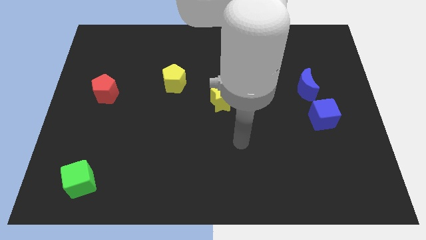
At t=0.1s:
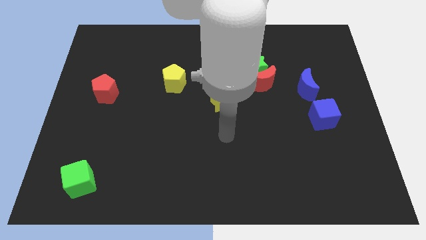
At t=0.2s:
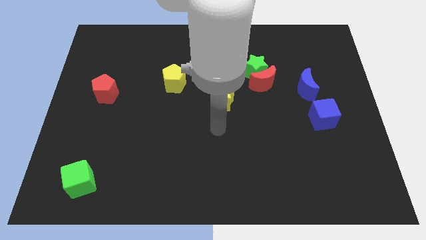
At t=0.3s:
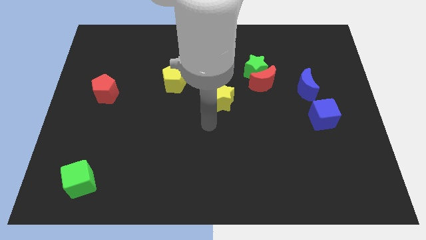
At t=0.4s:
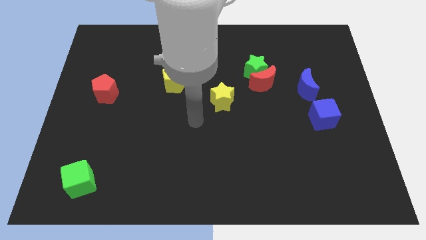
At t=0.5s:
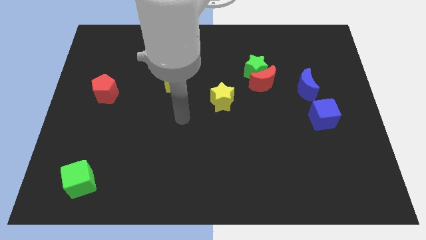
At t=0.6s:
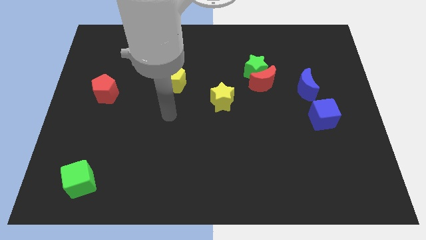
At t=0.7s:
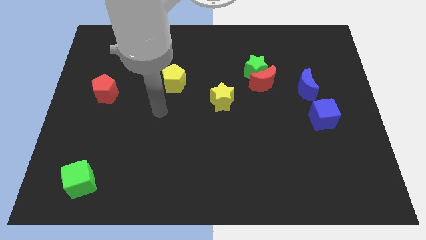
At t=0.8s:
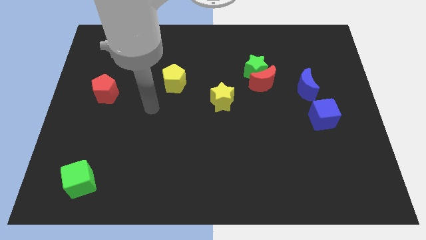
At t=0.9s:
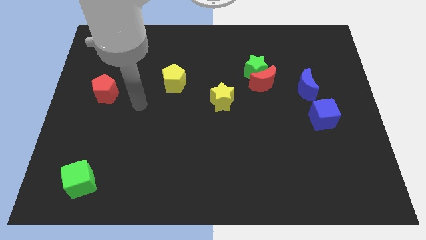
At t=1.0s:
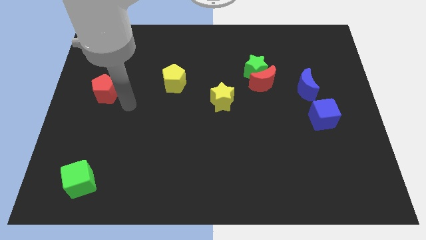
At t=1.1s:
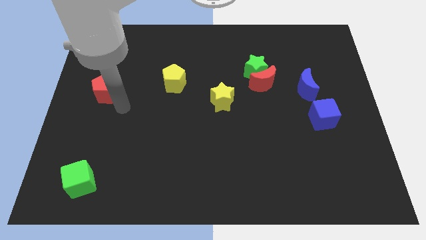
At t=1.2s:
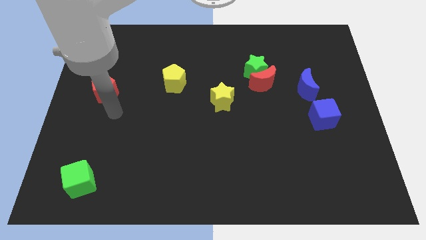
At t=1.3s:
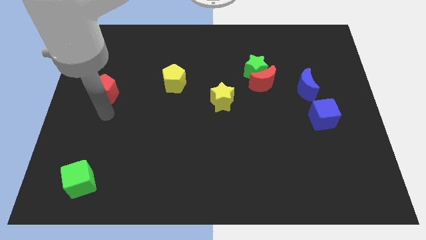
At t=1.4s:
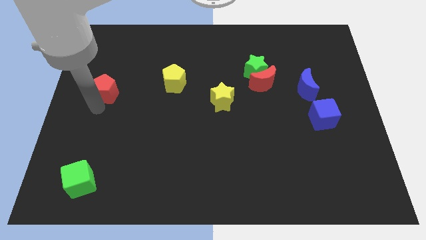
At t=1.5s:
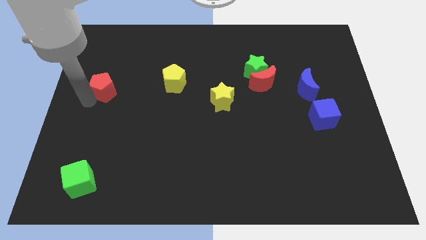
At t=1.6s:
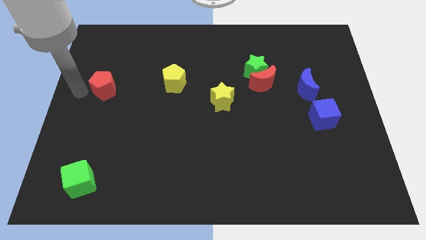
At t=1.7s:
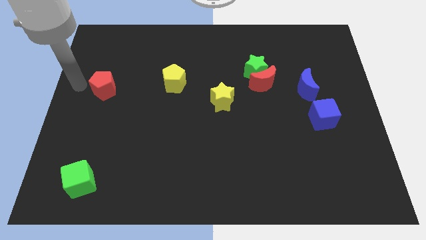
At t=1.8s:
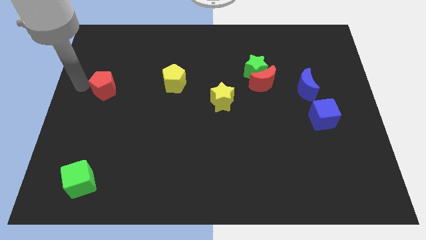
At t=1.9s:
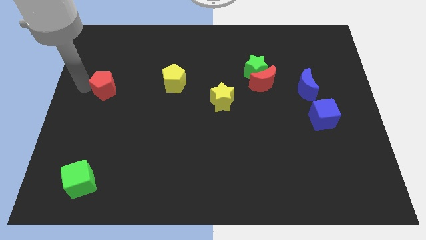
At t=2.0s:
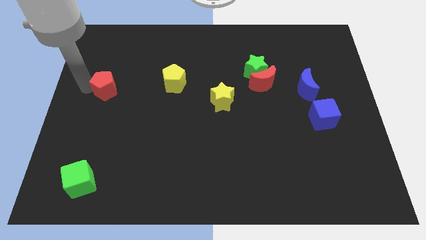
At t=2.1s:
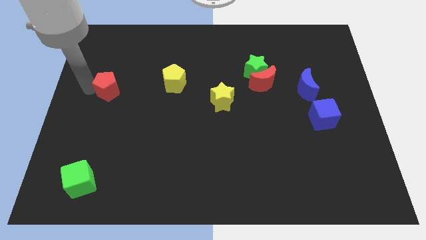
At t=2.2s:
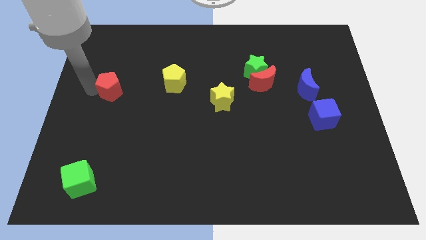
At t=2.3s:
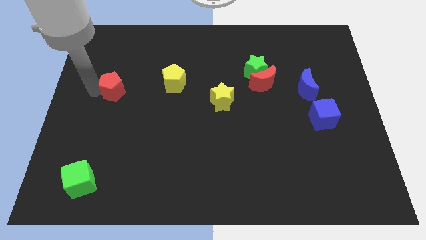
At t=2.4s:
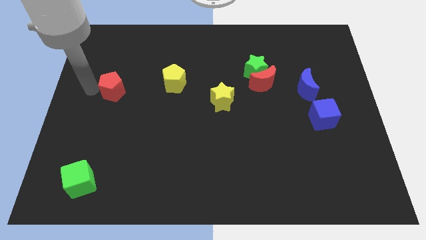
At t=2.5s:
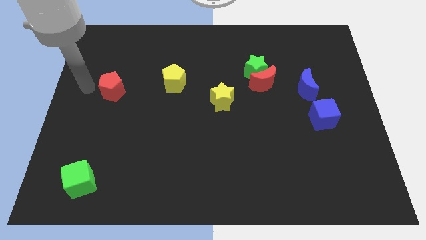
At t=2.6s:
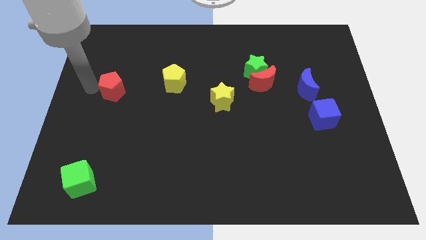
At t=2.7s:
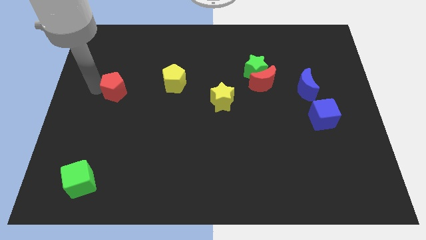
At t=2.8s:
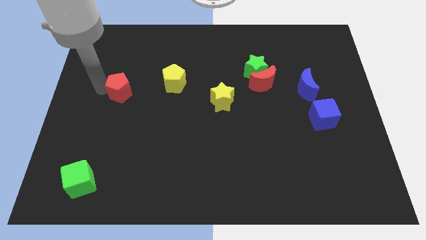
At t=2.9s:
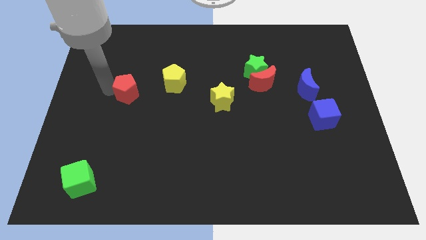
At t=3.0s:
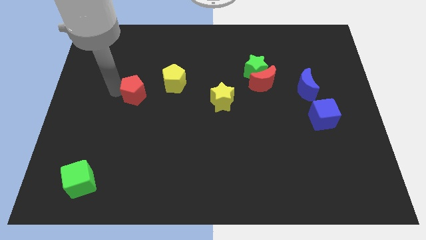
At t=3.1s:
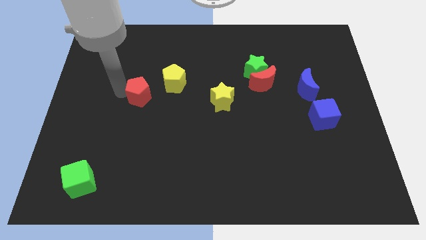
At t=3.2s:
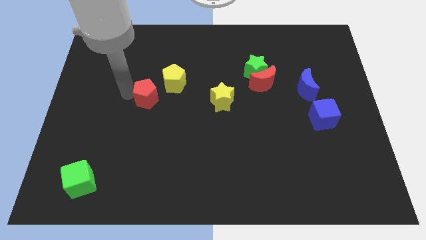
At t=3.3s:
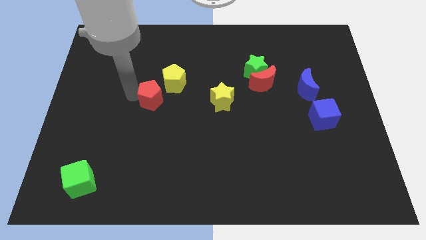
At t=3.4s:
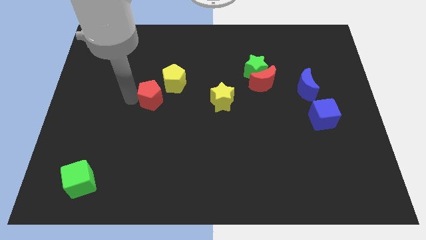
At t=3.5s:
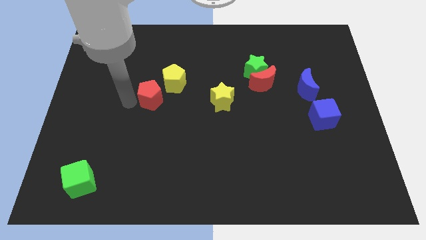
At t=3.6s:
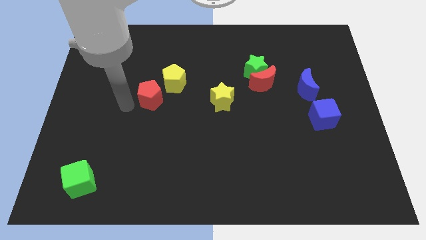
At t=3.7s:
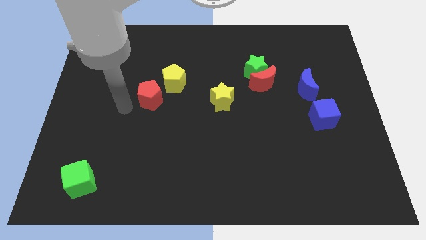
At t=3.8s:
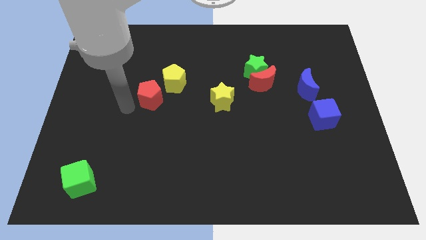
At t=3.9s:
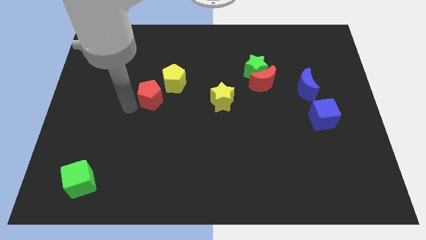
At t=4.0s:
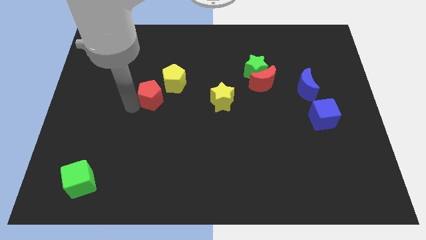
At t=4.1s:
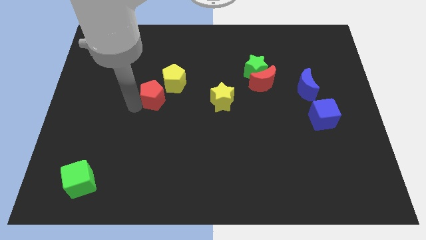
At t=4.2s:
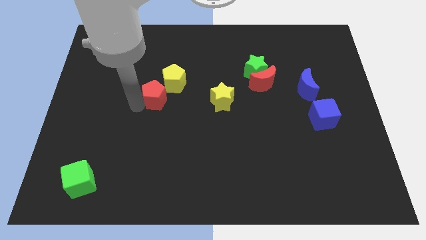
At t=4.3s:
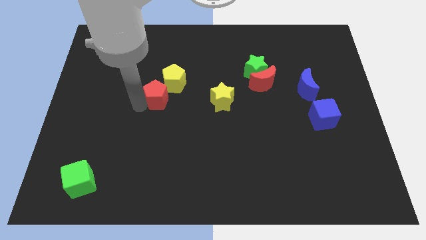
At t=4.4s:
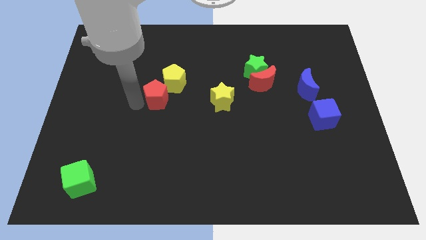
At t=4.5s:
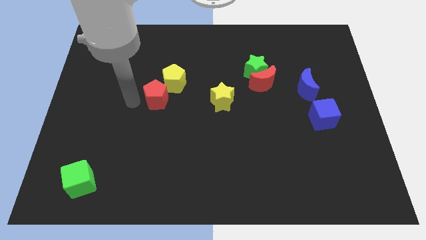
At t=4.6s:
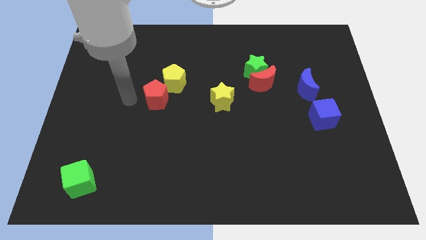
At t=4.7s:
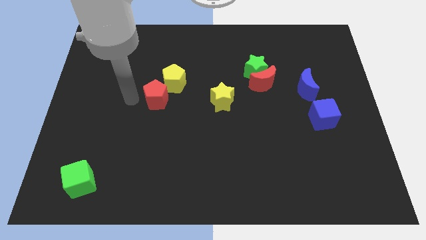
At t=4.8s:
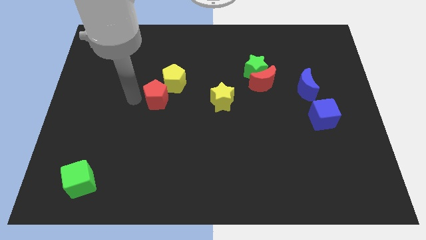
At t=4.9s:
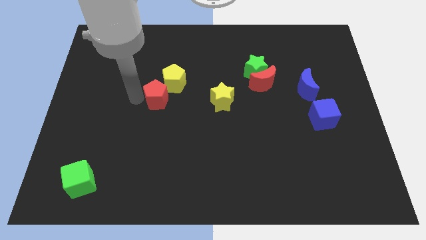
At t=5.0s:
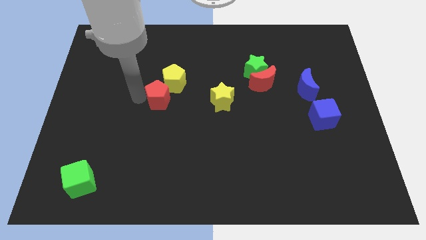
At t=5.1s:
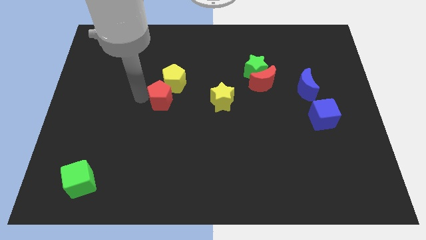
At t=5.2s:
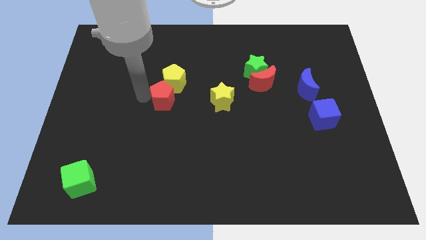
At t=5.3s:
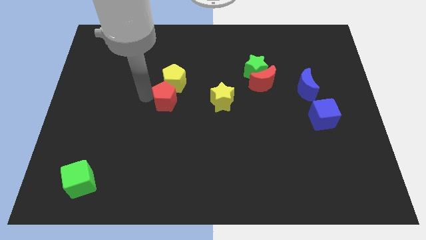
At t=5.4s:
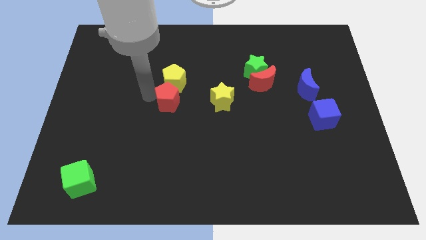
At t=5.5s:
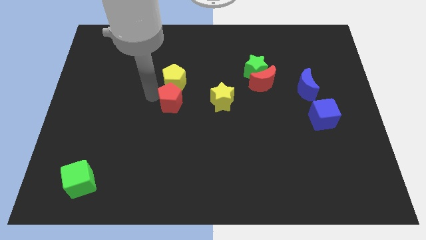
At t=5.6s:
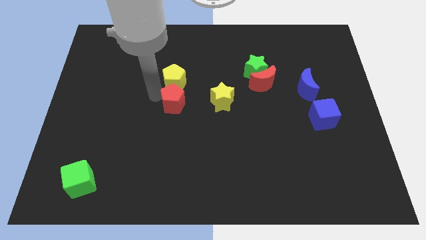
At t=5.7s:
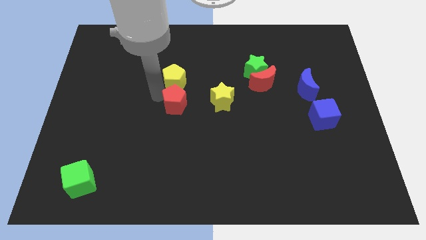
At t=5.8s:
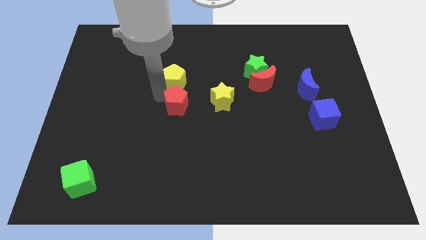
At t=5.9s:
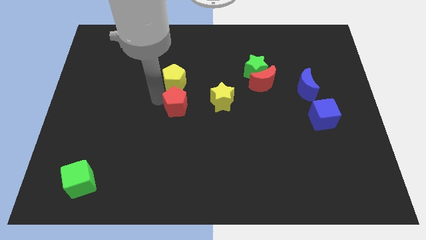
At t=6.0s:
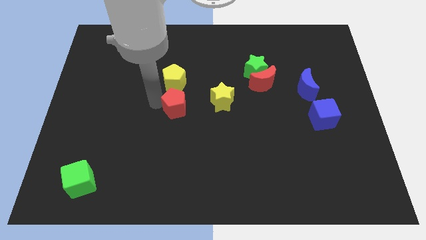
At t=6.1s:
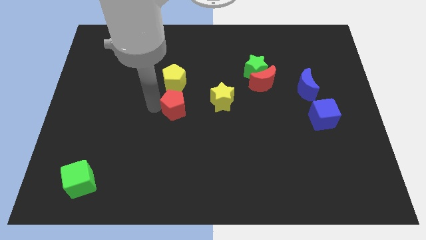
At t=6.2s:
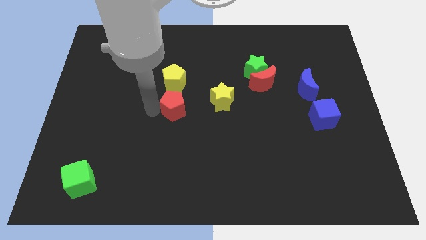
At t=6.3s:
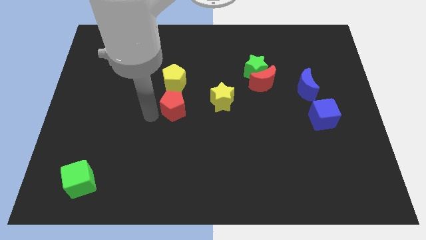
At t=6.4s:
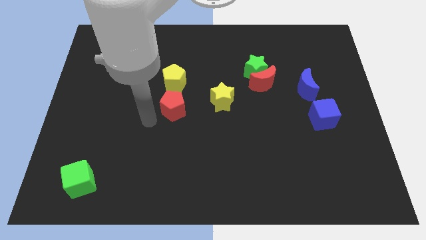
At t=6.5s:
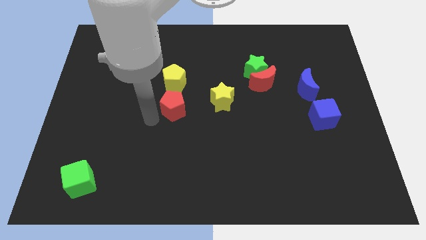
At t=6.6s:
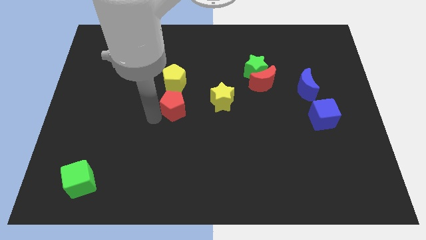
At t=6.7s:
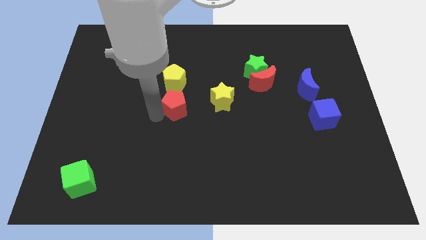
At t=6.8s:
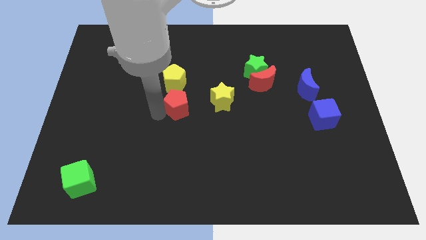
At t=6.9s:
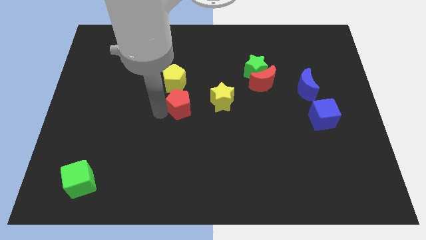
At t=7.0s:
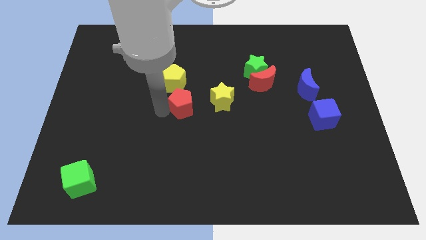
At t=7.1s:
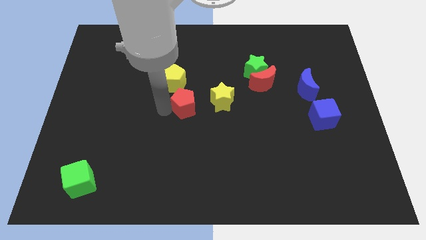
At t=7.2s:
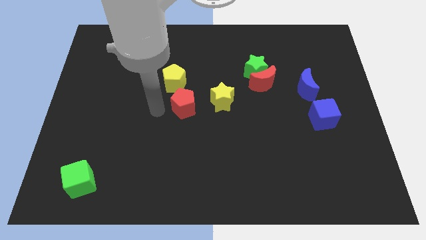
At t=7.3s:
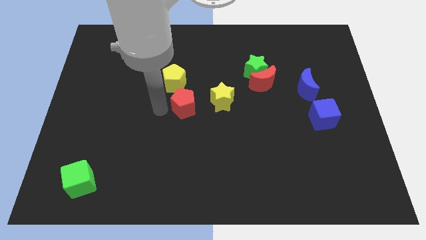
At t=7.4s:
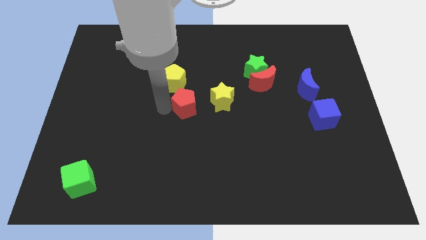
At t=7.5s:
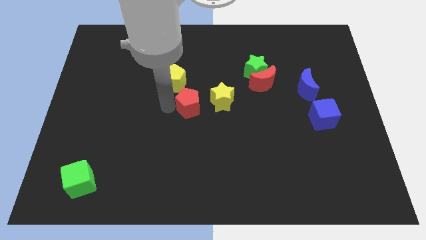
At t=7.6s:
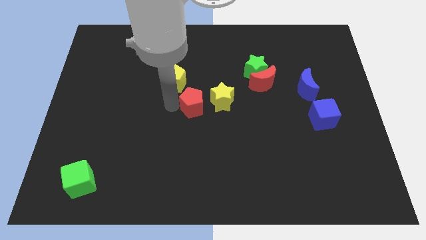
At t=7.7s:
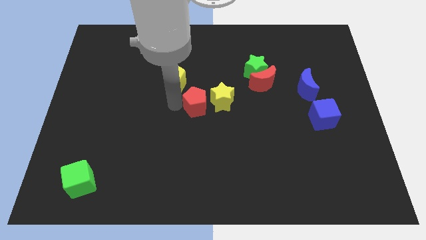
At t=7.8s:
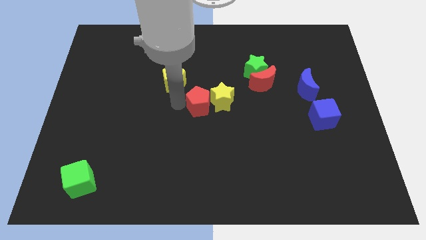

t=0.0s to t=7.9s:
put the red pentagon towards the yellow star
